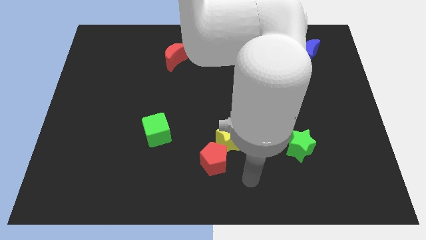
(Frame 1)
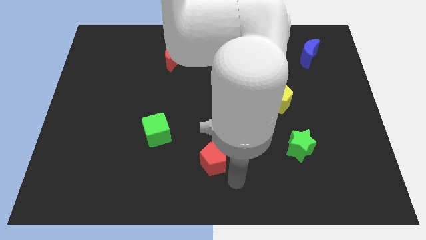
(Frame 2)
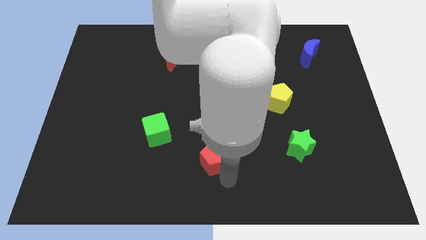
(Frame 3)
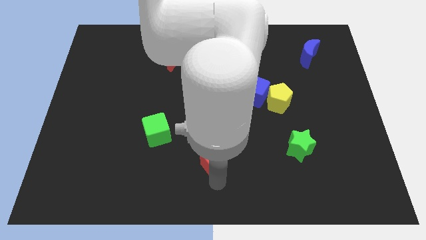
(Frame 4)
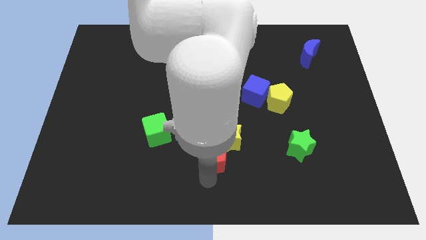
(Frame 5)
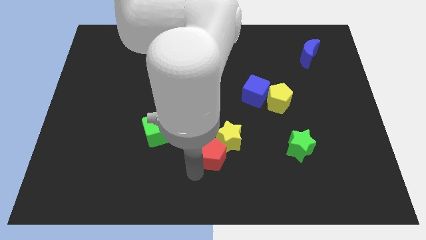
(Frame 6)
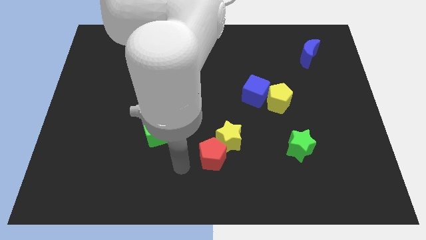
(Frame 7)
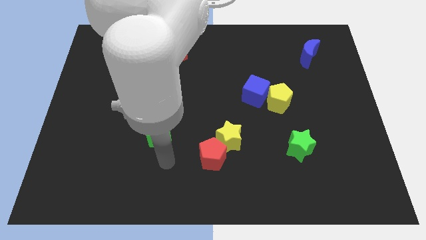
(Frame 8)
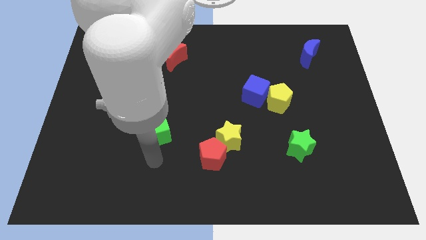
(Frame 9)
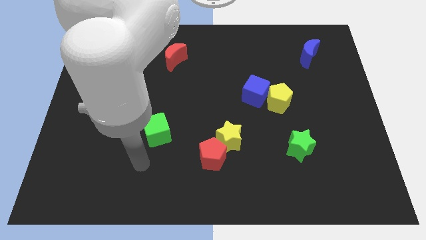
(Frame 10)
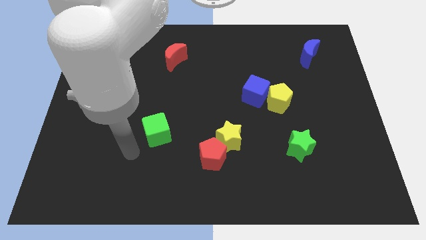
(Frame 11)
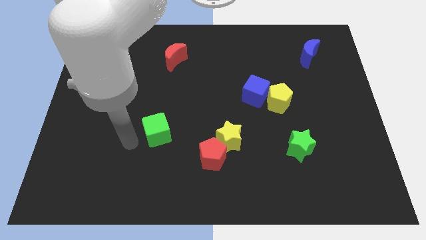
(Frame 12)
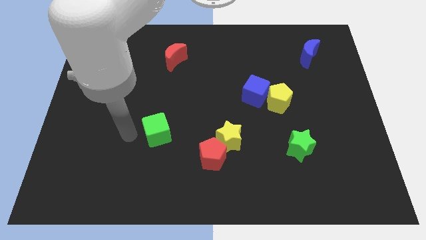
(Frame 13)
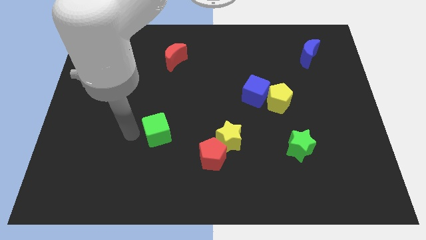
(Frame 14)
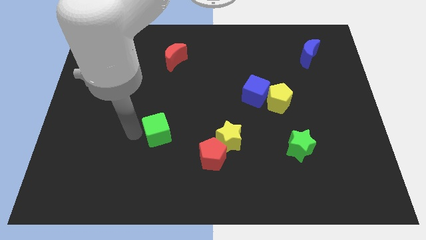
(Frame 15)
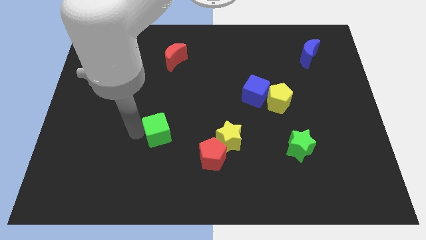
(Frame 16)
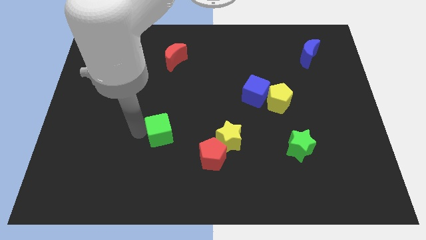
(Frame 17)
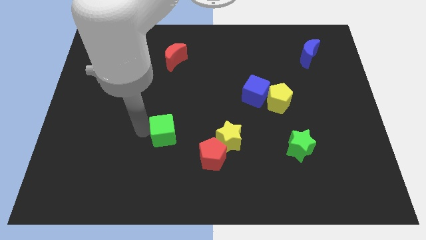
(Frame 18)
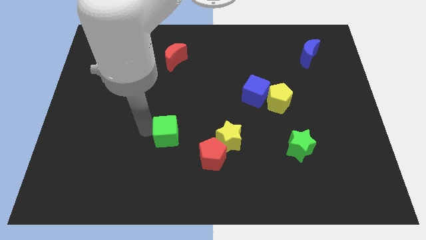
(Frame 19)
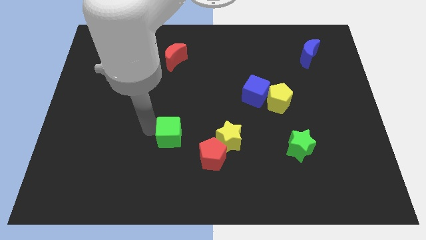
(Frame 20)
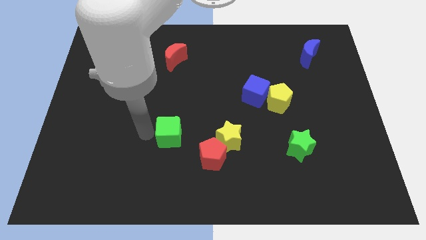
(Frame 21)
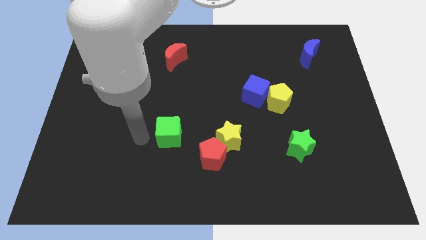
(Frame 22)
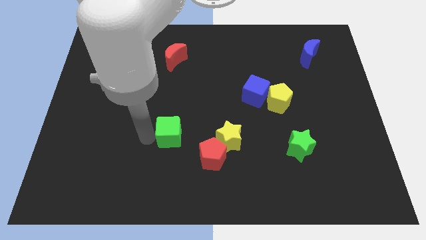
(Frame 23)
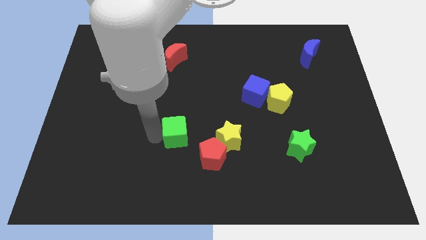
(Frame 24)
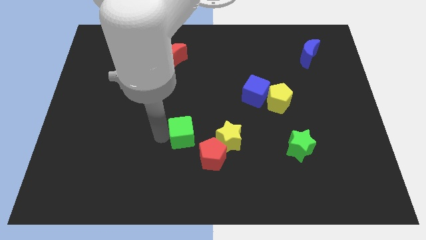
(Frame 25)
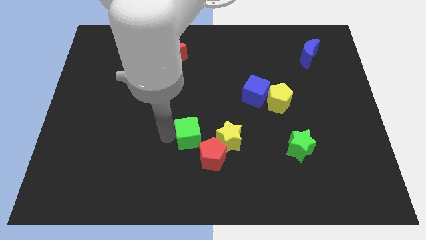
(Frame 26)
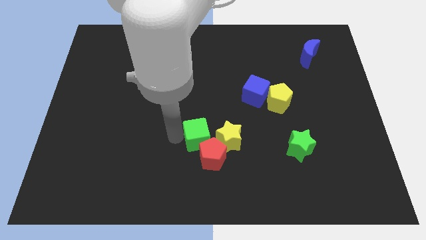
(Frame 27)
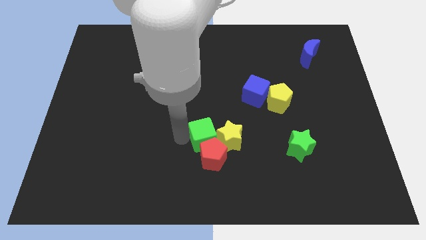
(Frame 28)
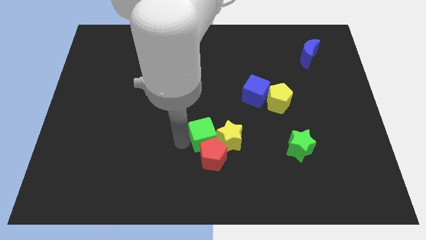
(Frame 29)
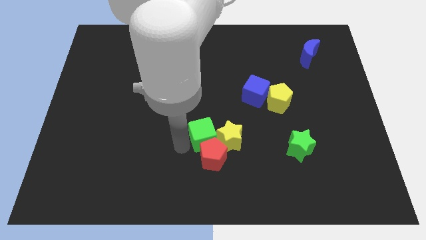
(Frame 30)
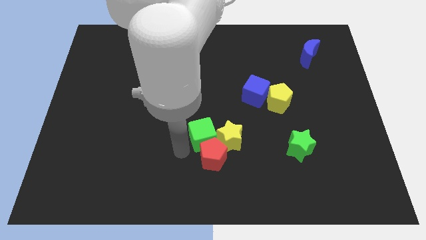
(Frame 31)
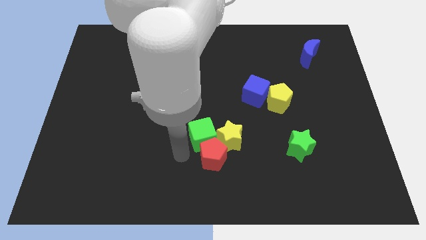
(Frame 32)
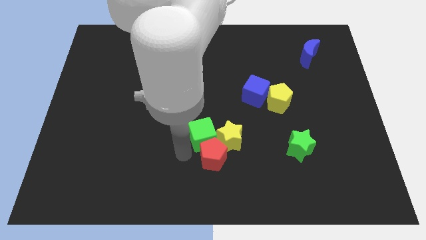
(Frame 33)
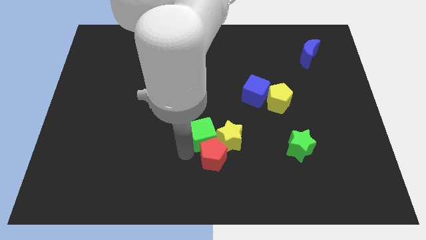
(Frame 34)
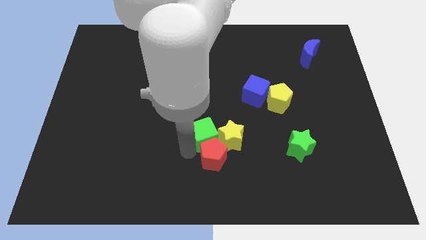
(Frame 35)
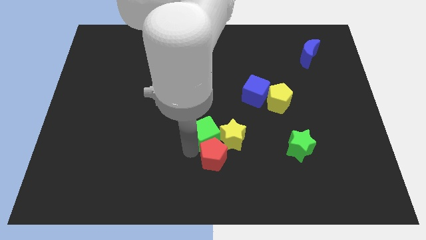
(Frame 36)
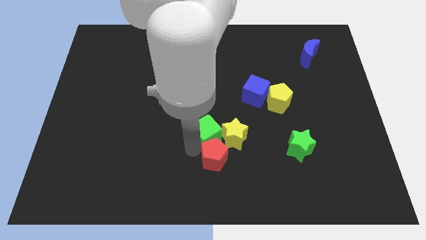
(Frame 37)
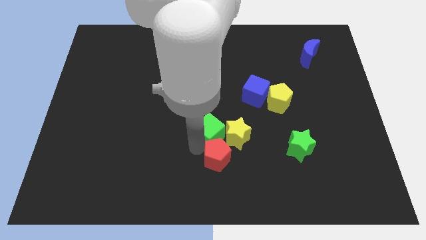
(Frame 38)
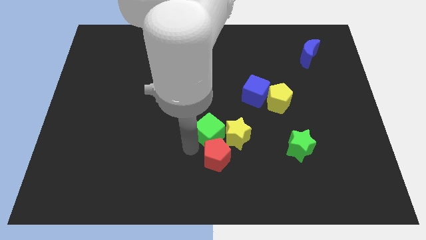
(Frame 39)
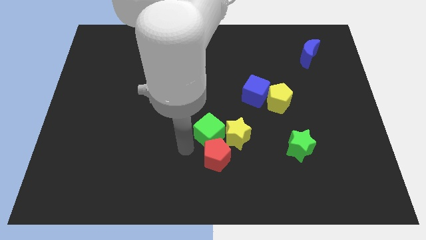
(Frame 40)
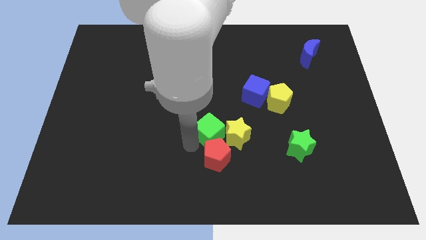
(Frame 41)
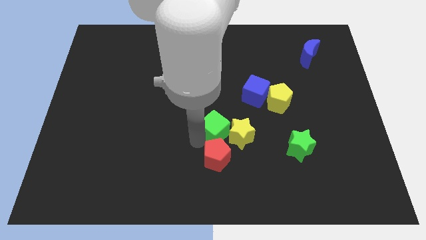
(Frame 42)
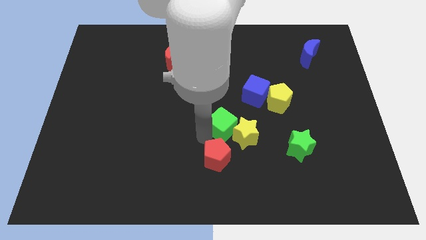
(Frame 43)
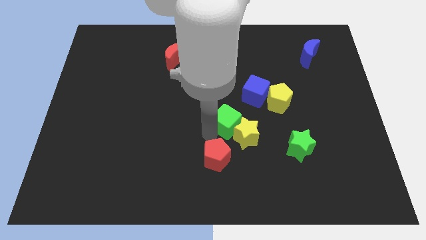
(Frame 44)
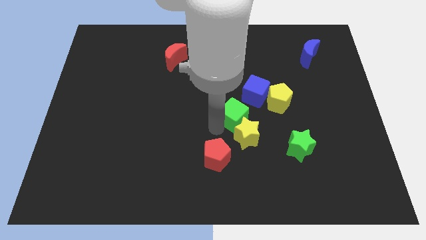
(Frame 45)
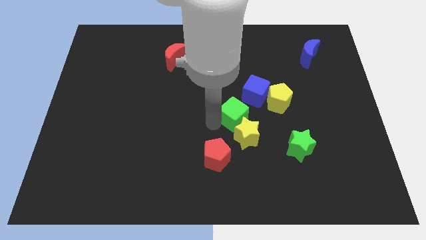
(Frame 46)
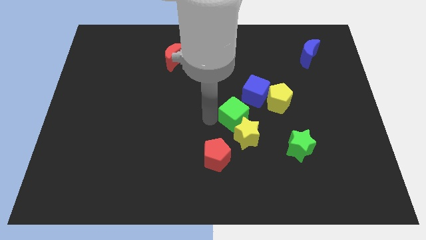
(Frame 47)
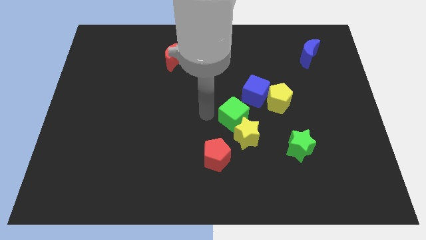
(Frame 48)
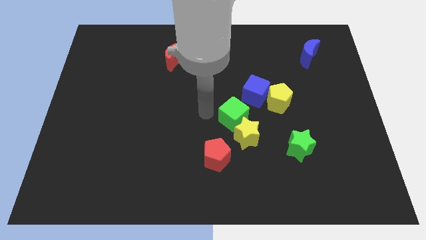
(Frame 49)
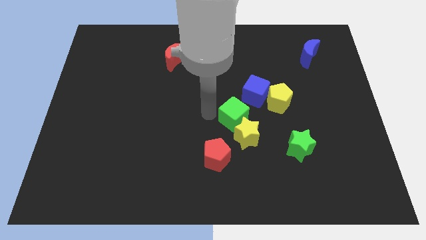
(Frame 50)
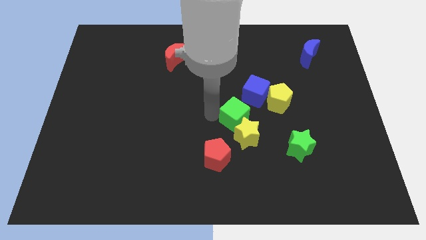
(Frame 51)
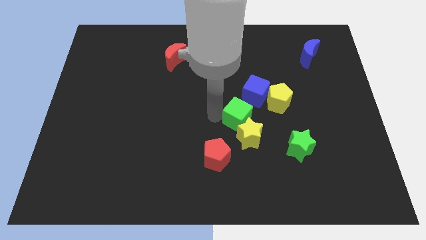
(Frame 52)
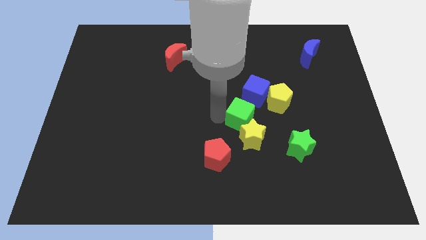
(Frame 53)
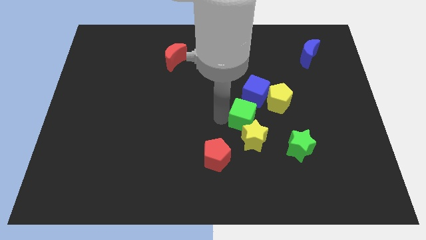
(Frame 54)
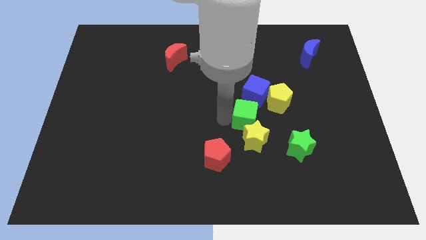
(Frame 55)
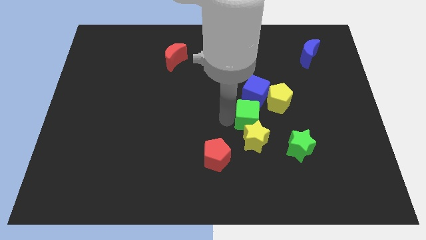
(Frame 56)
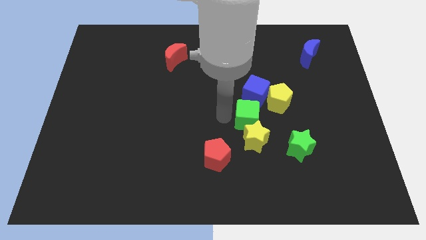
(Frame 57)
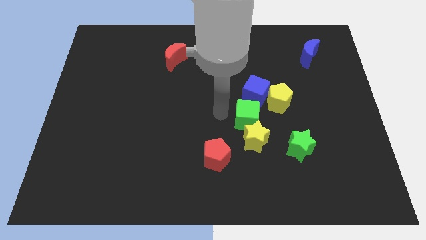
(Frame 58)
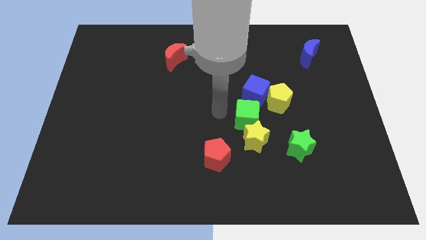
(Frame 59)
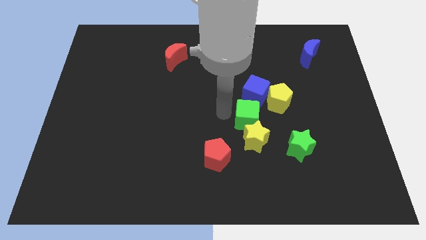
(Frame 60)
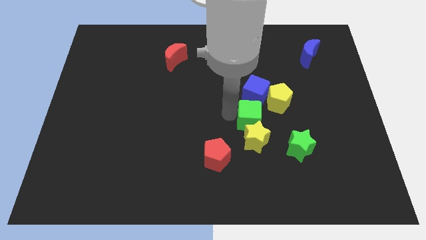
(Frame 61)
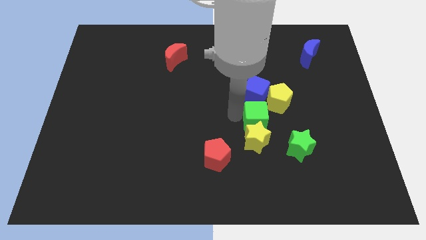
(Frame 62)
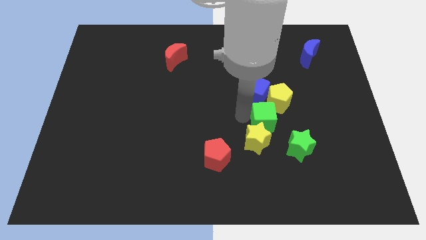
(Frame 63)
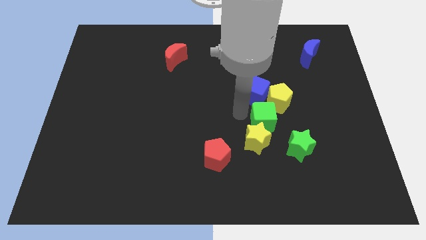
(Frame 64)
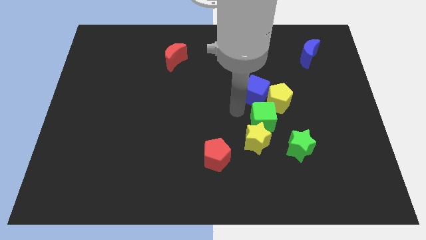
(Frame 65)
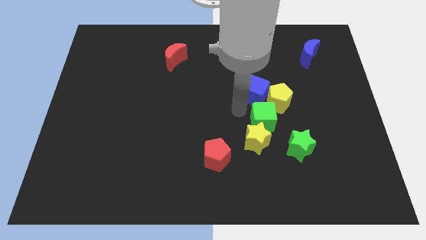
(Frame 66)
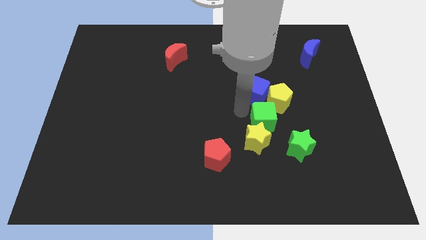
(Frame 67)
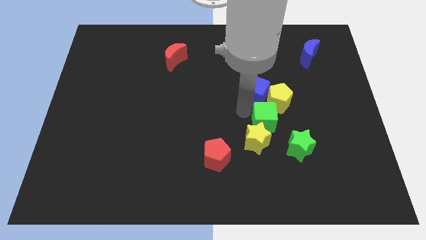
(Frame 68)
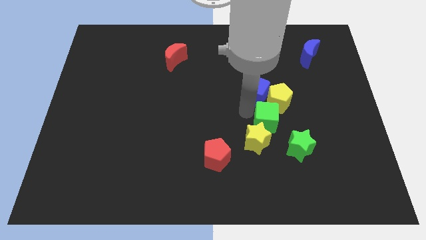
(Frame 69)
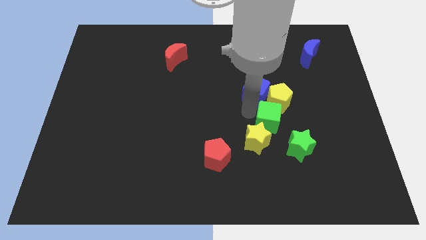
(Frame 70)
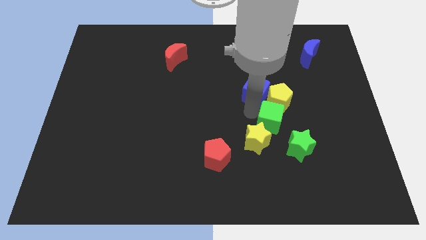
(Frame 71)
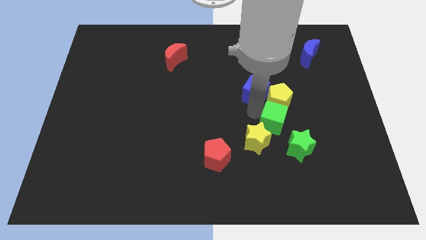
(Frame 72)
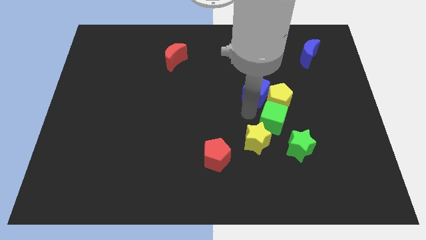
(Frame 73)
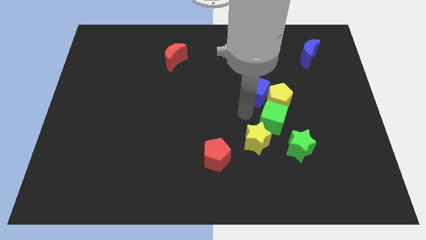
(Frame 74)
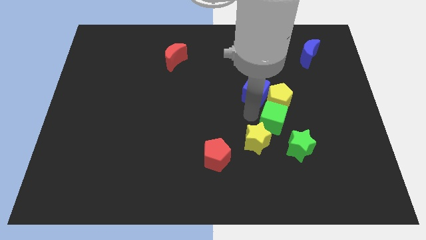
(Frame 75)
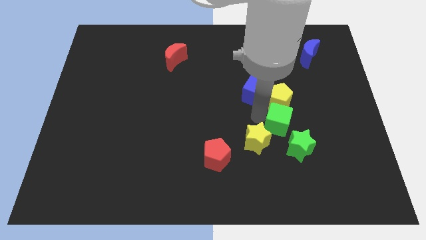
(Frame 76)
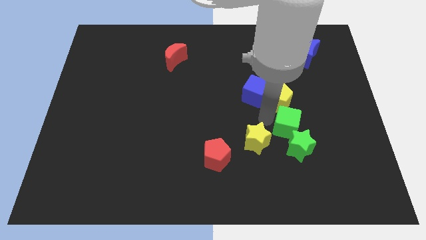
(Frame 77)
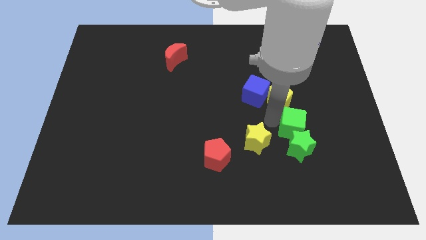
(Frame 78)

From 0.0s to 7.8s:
put the green cube diagonally up and to the right of the green star
